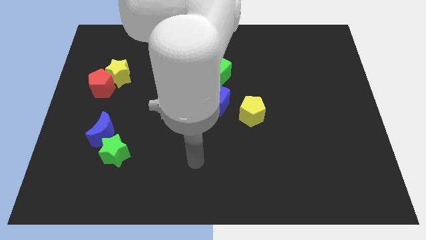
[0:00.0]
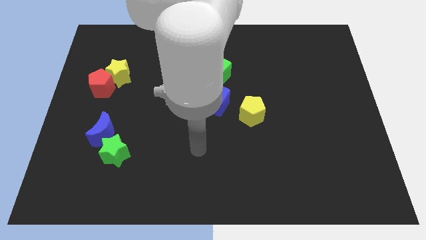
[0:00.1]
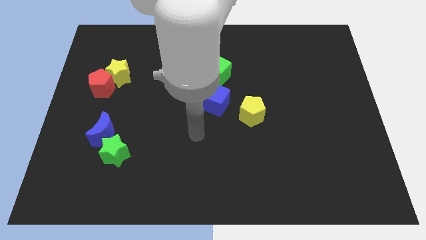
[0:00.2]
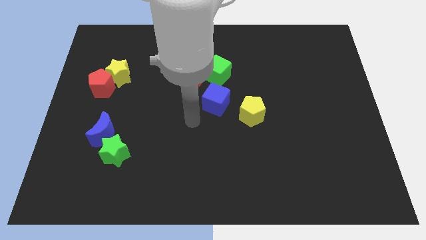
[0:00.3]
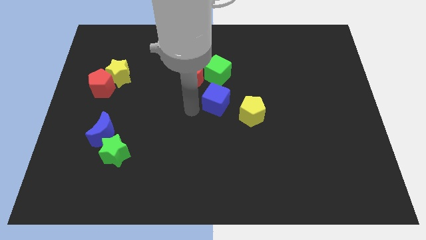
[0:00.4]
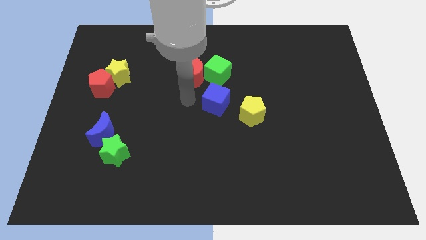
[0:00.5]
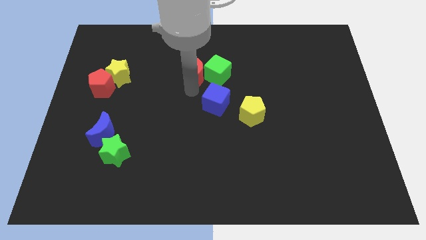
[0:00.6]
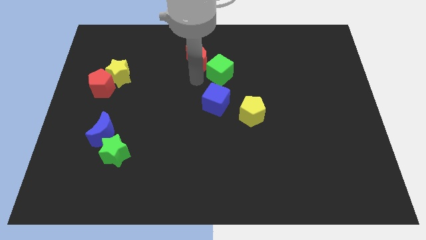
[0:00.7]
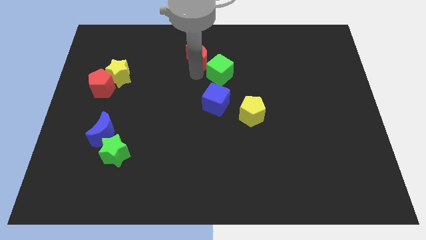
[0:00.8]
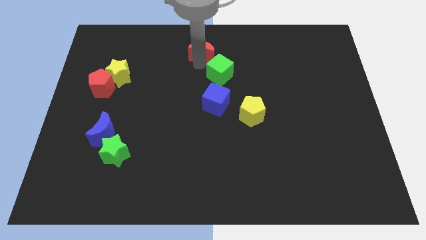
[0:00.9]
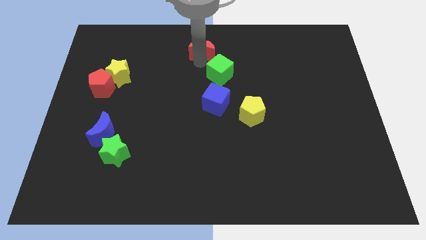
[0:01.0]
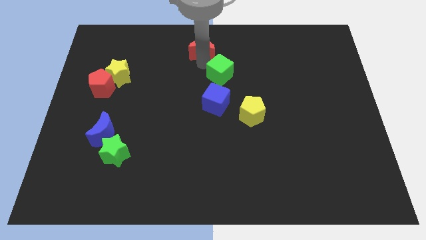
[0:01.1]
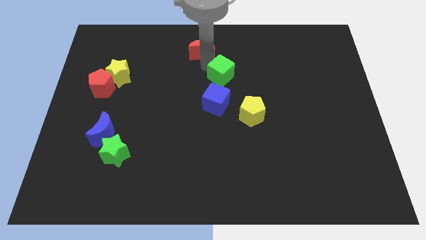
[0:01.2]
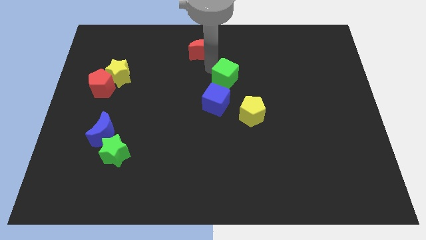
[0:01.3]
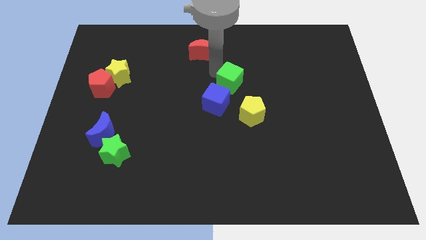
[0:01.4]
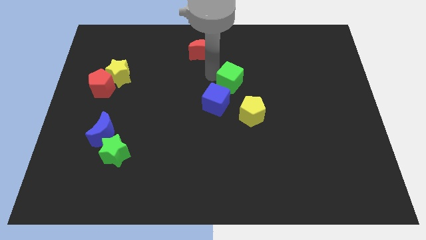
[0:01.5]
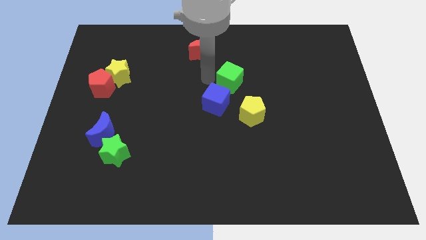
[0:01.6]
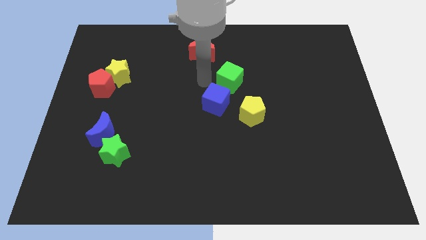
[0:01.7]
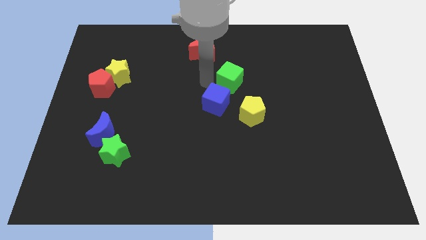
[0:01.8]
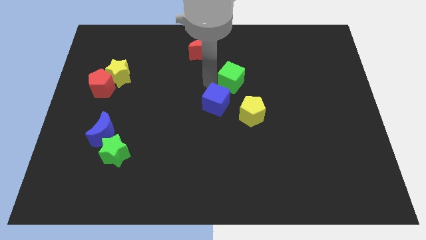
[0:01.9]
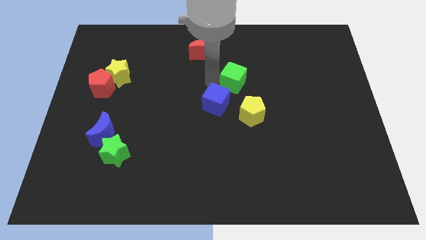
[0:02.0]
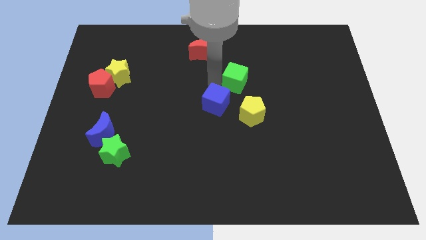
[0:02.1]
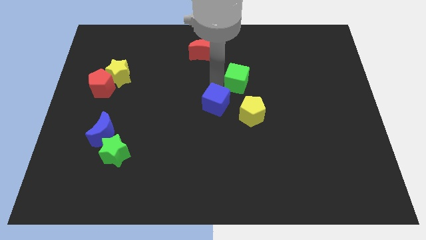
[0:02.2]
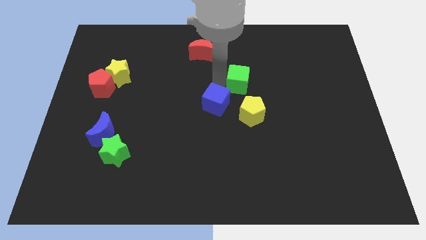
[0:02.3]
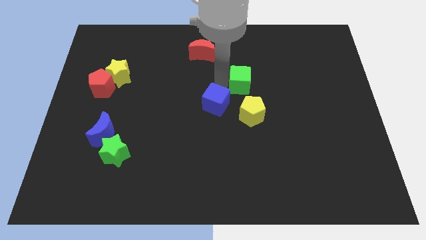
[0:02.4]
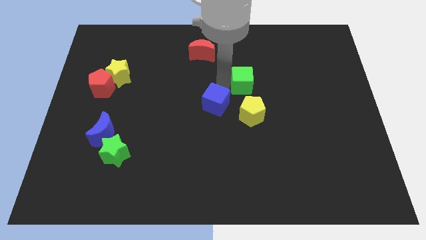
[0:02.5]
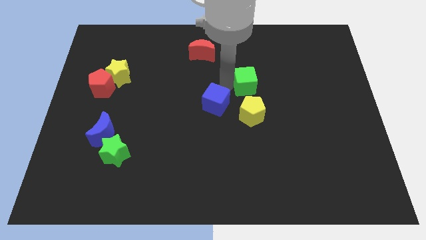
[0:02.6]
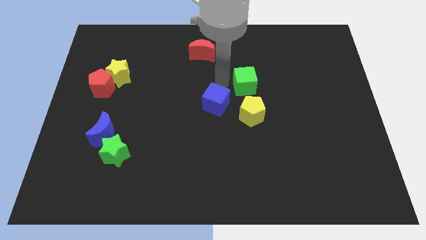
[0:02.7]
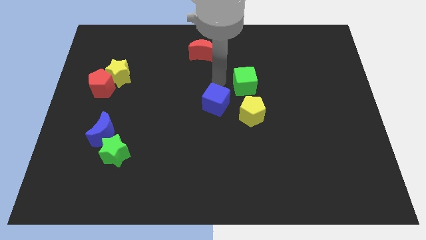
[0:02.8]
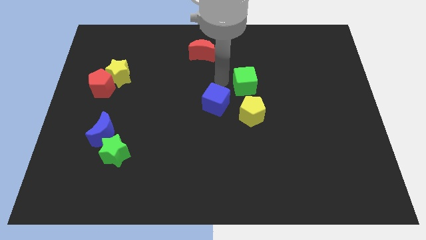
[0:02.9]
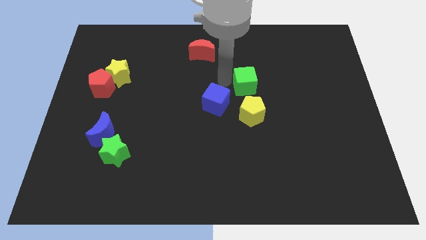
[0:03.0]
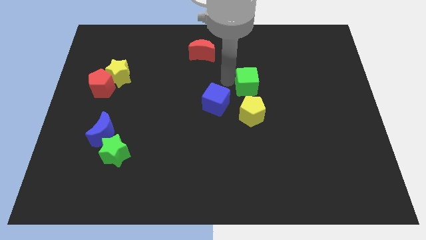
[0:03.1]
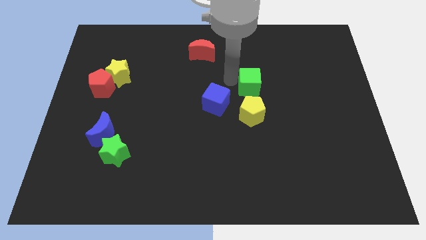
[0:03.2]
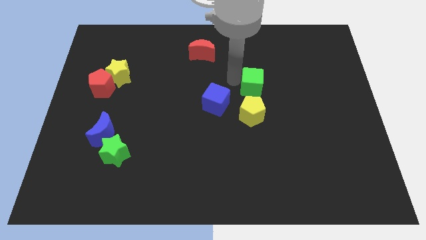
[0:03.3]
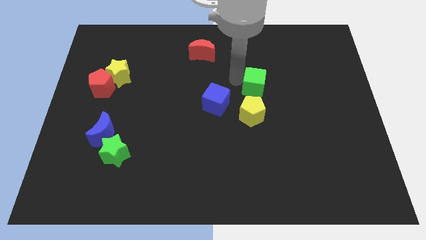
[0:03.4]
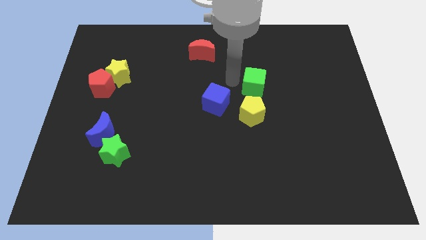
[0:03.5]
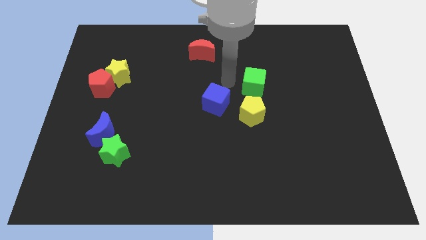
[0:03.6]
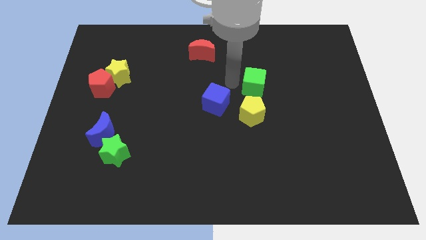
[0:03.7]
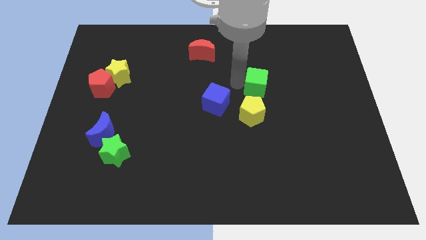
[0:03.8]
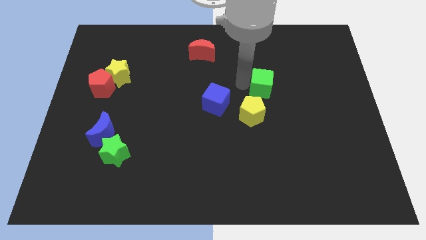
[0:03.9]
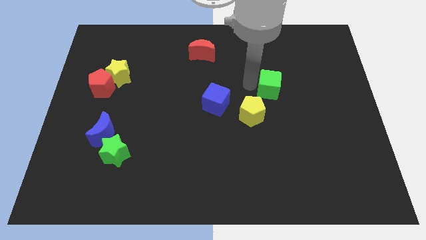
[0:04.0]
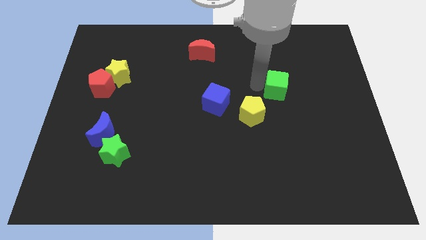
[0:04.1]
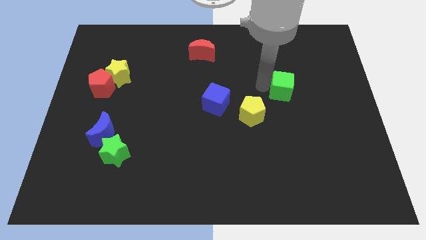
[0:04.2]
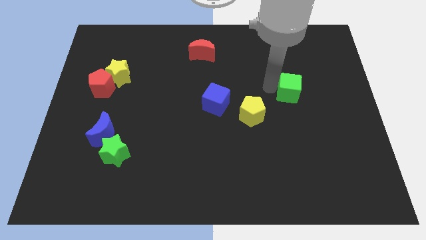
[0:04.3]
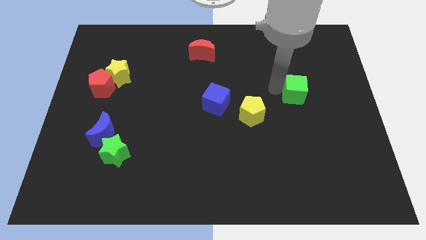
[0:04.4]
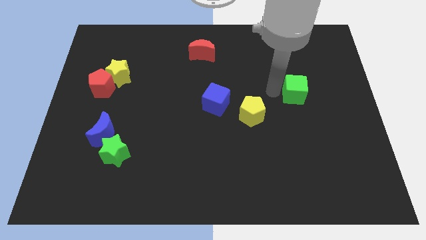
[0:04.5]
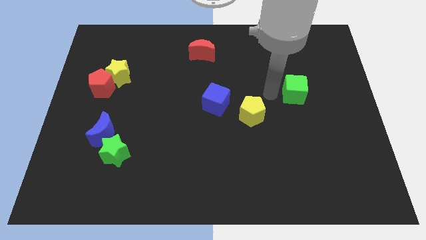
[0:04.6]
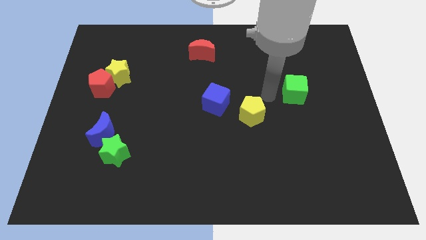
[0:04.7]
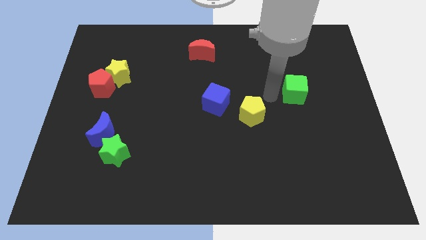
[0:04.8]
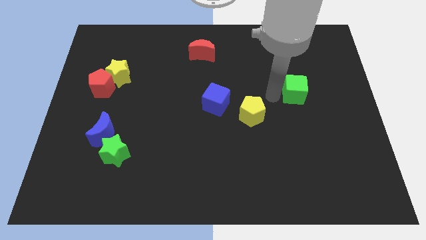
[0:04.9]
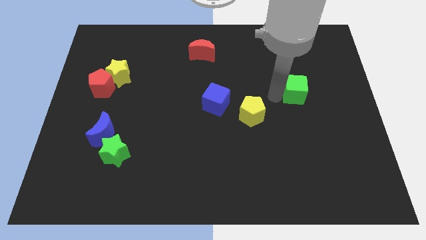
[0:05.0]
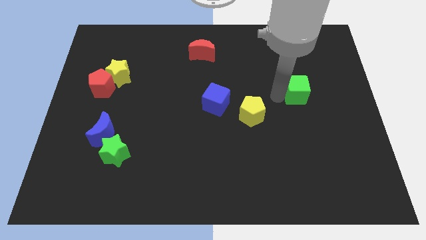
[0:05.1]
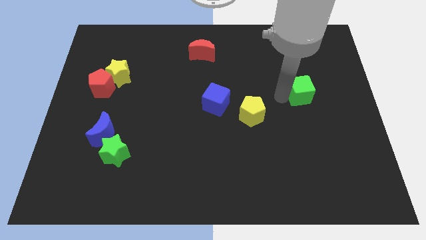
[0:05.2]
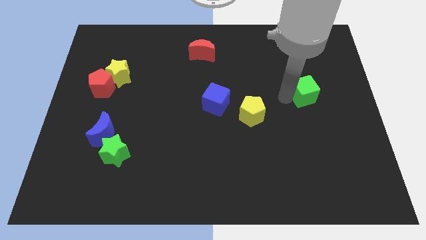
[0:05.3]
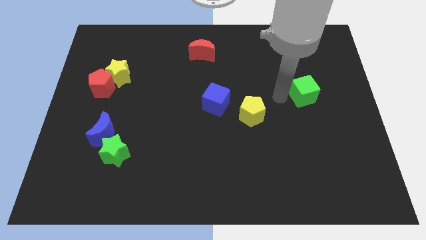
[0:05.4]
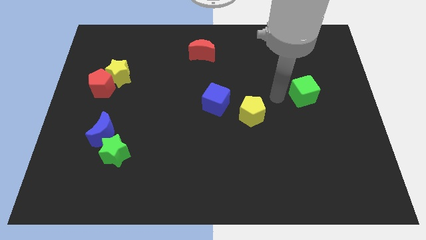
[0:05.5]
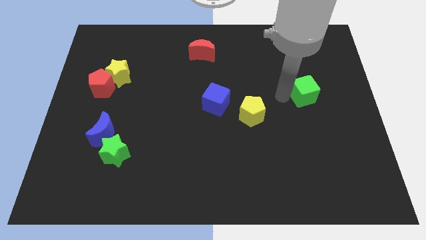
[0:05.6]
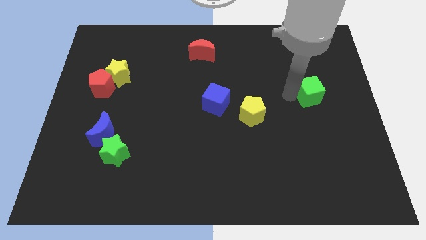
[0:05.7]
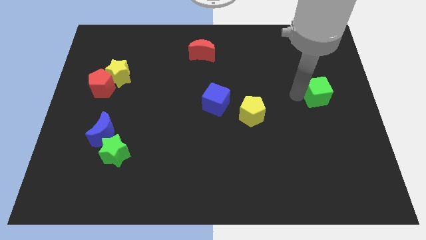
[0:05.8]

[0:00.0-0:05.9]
put the green cube to the right side of the board
